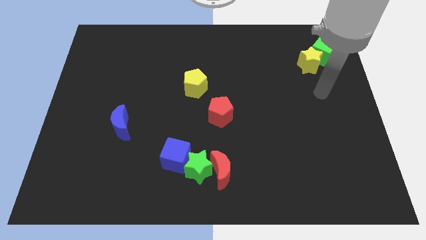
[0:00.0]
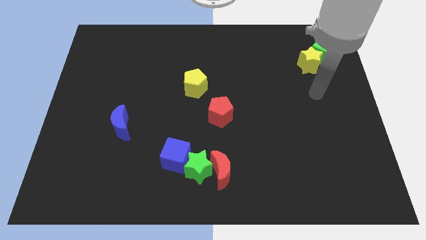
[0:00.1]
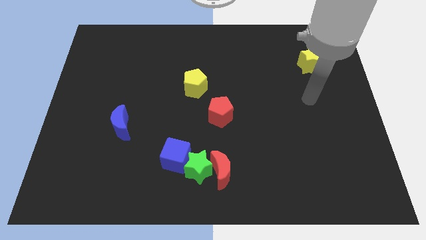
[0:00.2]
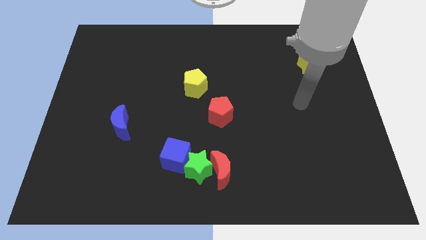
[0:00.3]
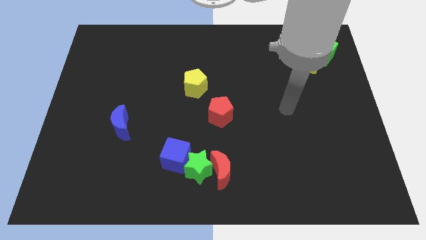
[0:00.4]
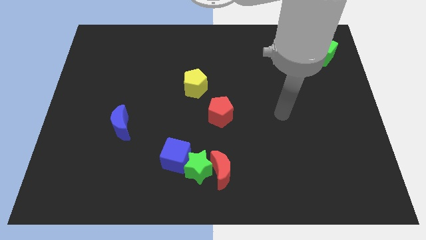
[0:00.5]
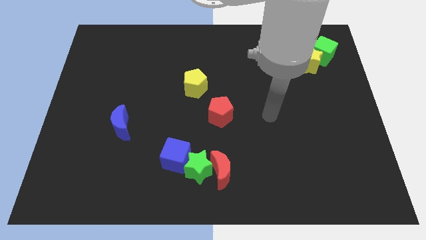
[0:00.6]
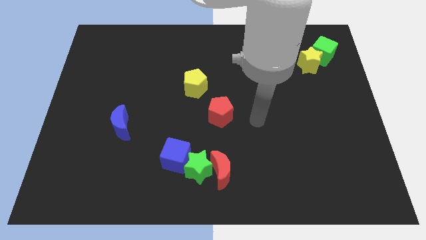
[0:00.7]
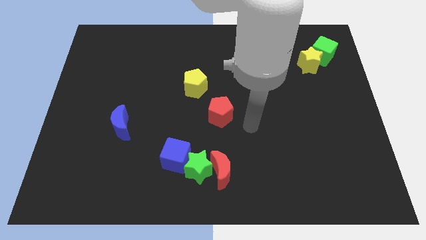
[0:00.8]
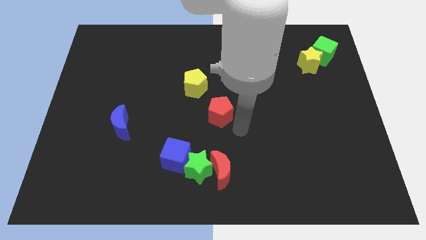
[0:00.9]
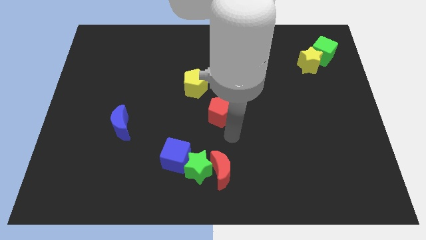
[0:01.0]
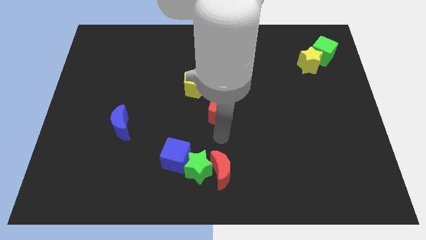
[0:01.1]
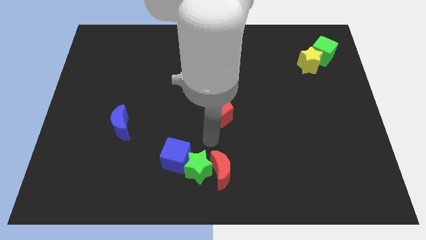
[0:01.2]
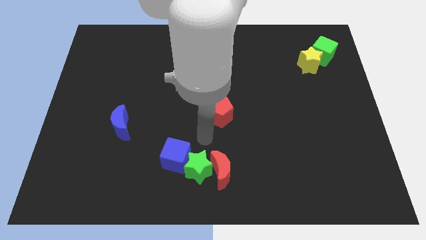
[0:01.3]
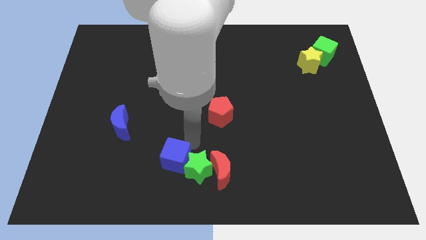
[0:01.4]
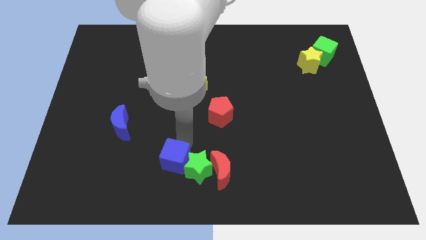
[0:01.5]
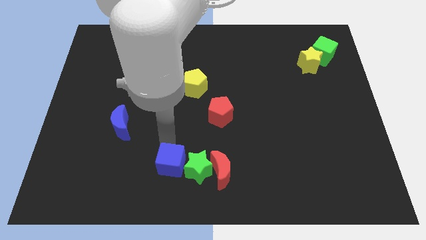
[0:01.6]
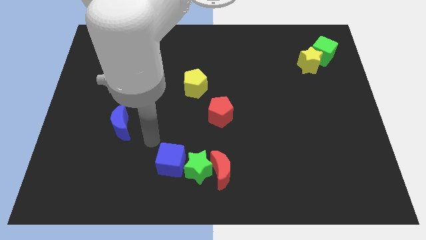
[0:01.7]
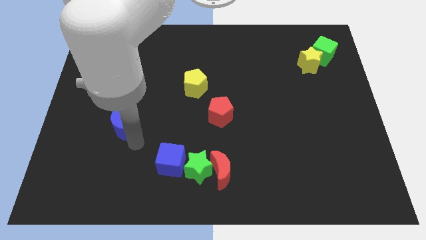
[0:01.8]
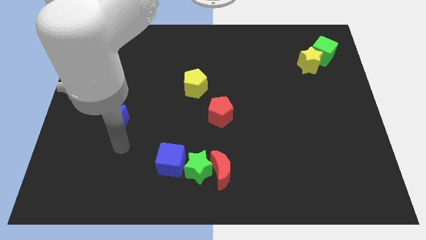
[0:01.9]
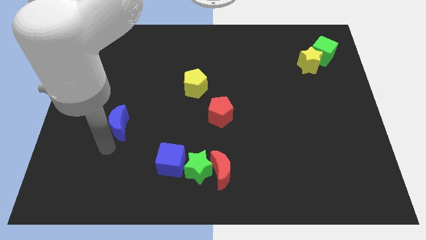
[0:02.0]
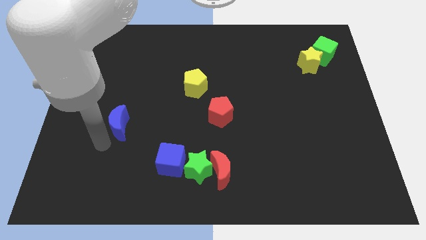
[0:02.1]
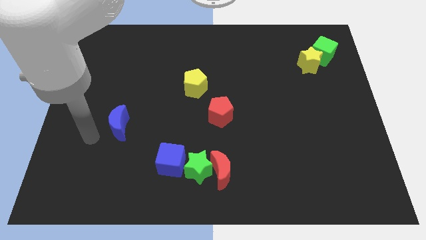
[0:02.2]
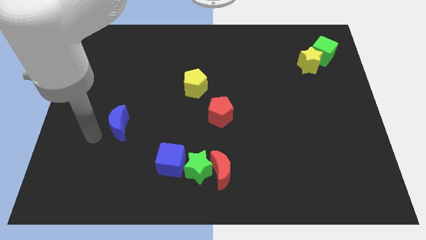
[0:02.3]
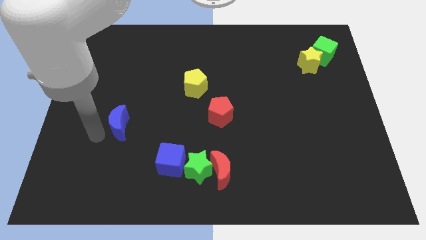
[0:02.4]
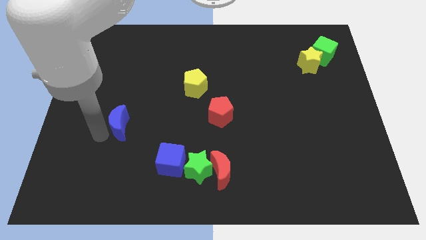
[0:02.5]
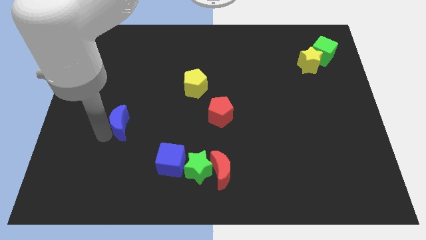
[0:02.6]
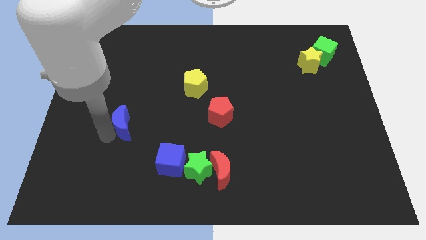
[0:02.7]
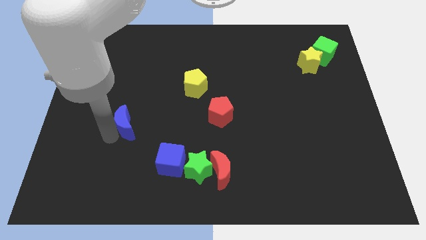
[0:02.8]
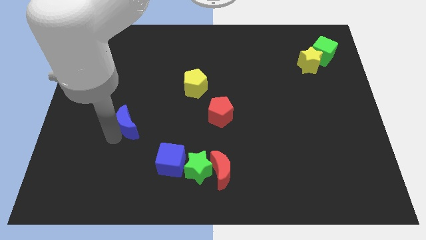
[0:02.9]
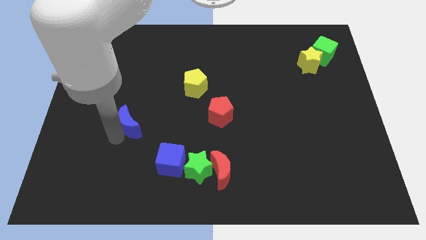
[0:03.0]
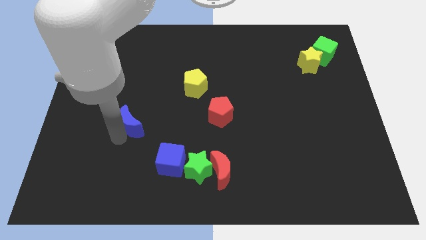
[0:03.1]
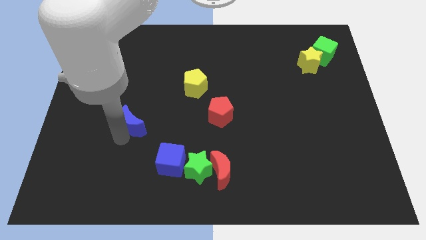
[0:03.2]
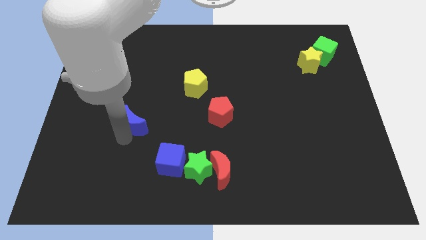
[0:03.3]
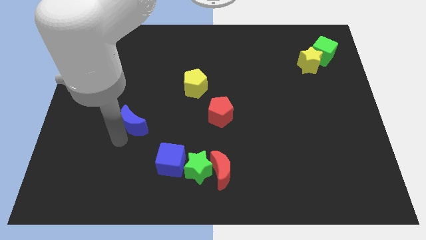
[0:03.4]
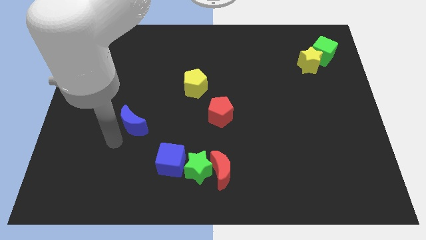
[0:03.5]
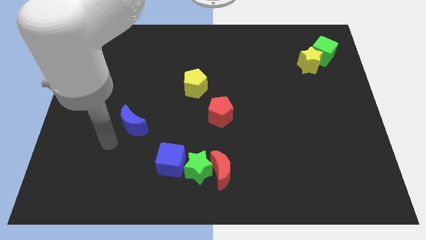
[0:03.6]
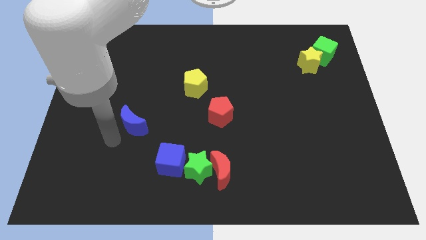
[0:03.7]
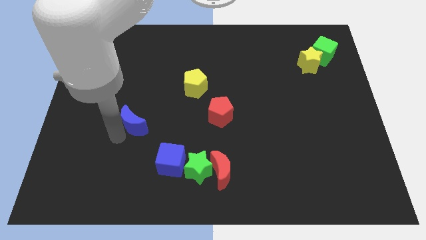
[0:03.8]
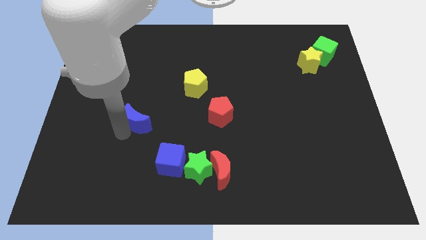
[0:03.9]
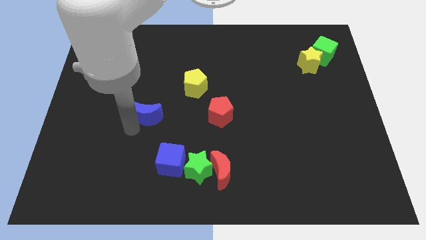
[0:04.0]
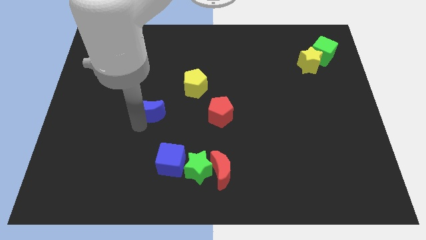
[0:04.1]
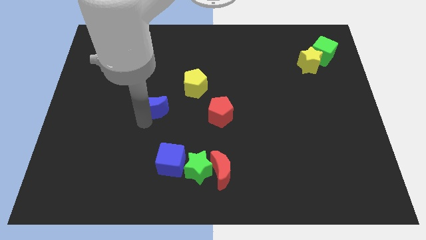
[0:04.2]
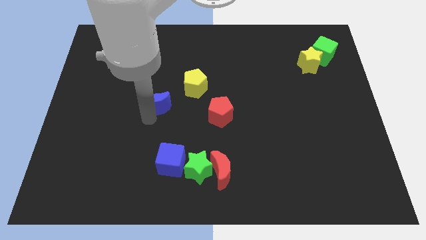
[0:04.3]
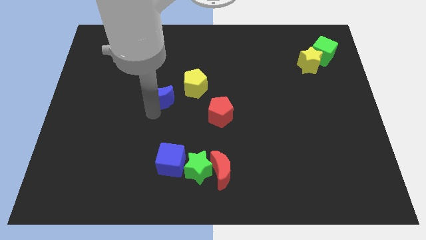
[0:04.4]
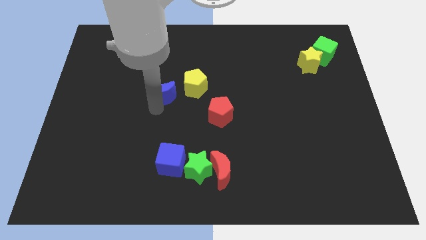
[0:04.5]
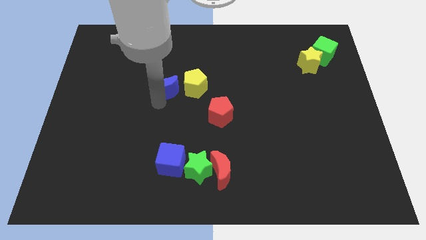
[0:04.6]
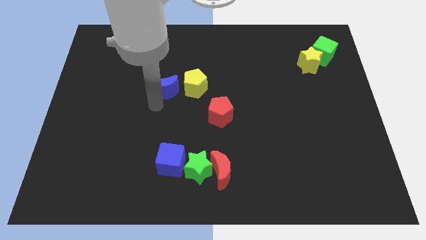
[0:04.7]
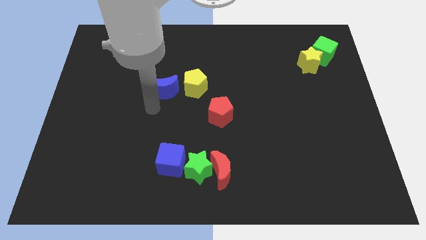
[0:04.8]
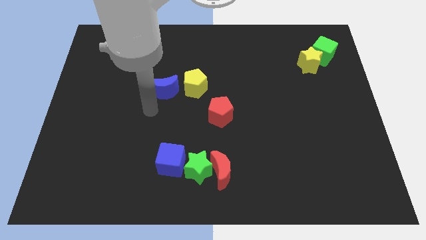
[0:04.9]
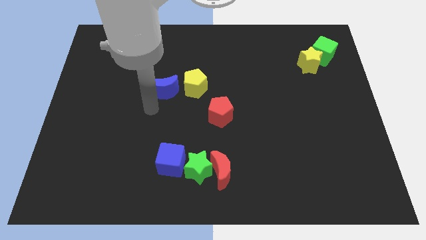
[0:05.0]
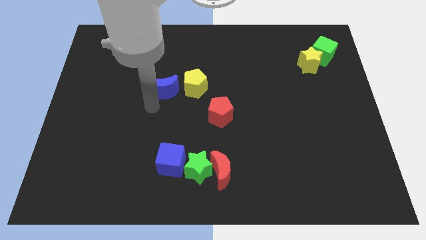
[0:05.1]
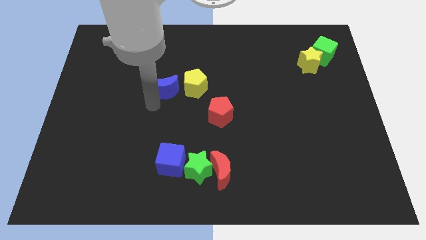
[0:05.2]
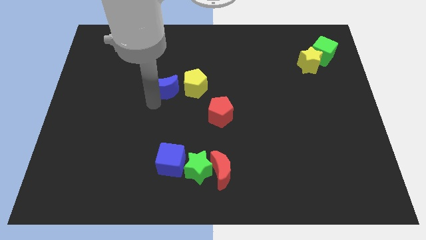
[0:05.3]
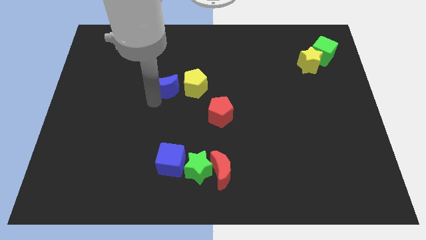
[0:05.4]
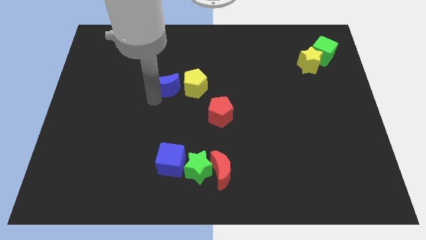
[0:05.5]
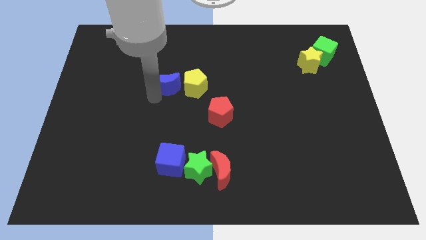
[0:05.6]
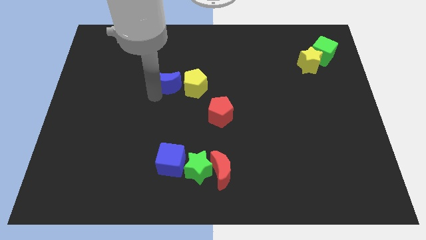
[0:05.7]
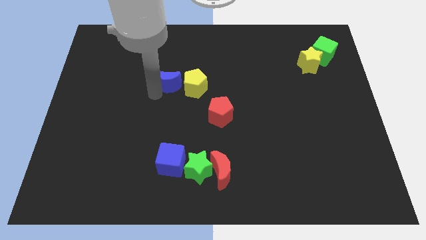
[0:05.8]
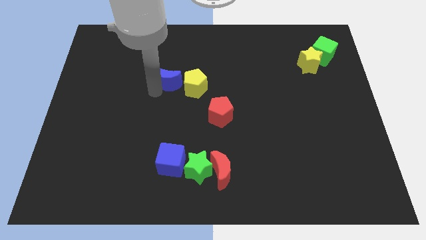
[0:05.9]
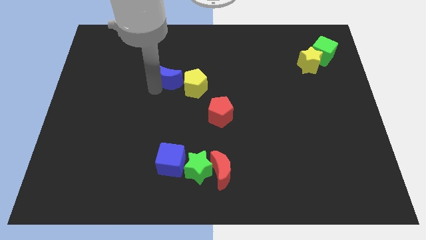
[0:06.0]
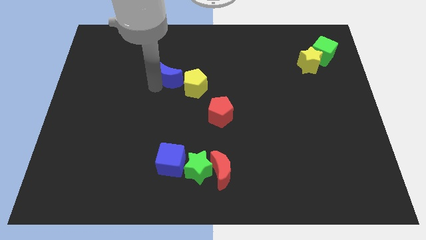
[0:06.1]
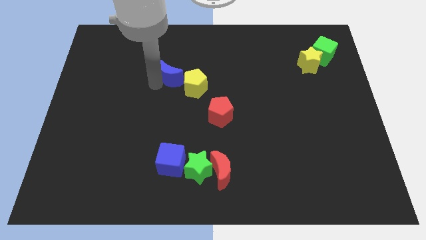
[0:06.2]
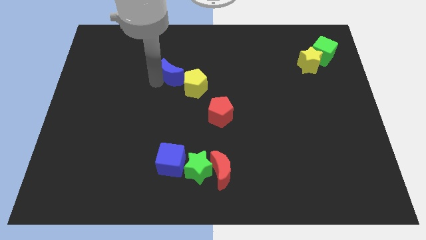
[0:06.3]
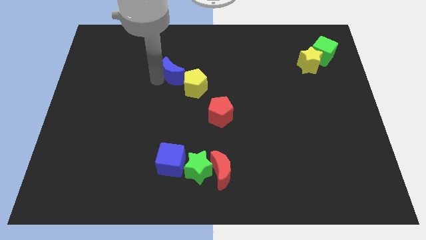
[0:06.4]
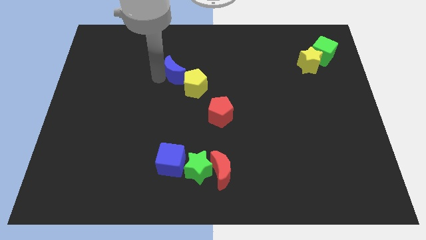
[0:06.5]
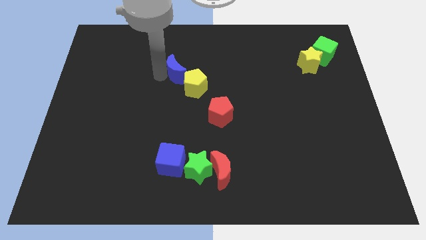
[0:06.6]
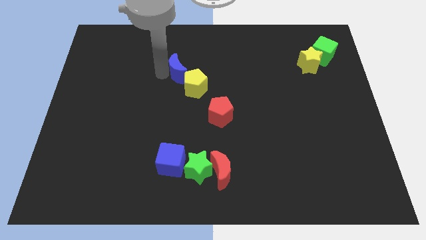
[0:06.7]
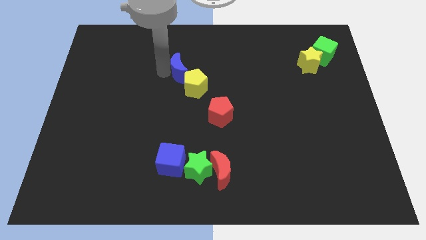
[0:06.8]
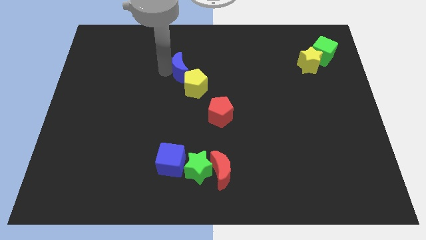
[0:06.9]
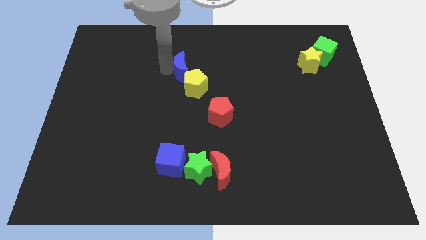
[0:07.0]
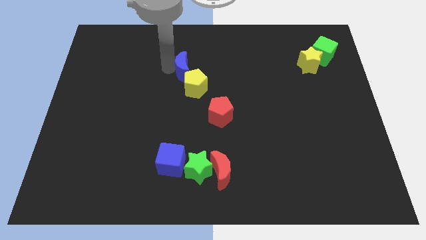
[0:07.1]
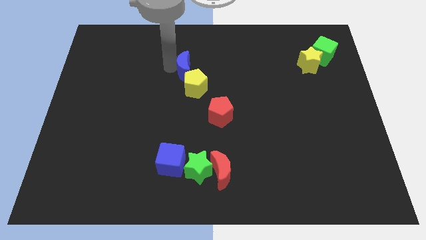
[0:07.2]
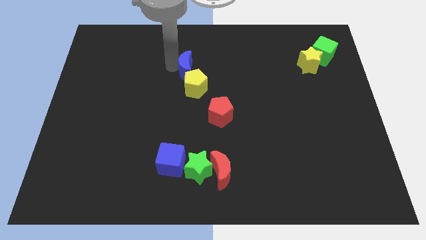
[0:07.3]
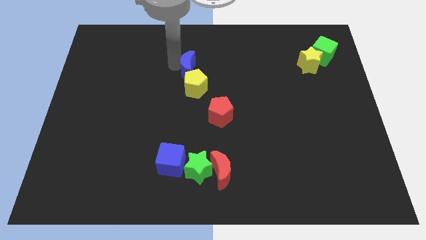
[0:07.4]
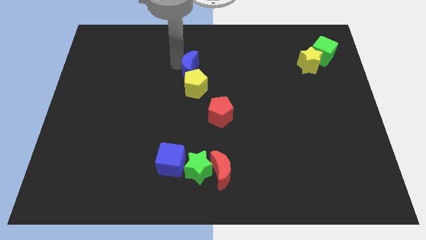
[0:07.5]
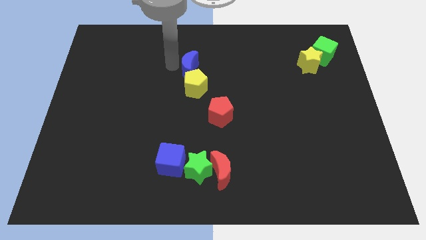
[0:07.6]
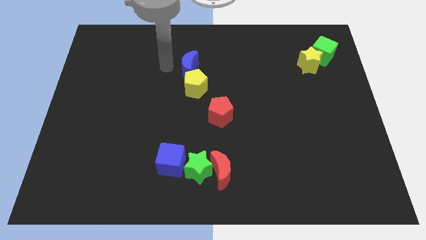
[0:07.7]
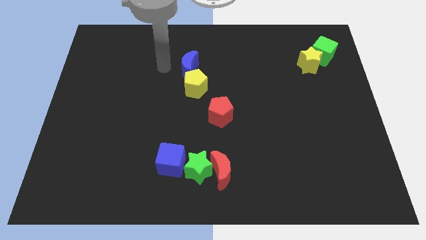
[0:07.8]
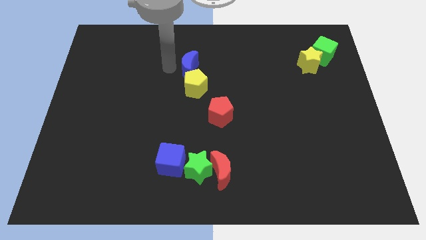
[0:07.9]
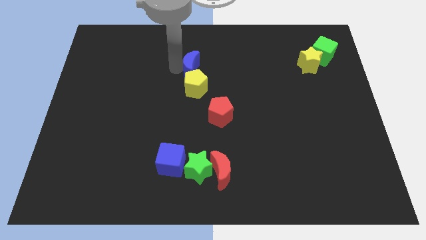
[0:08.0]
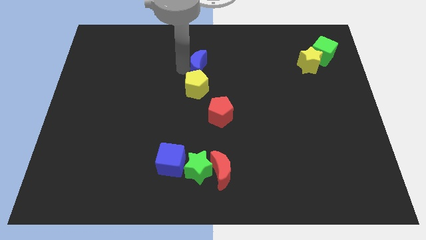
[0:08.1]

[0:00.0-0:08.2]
move the blue moon to the top right of the yellow pentagon
